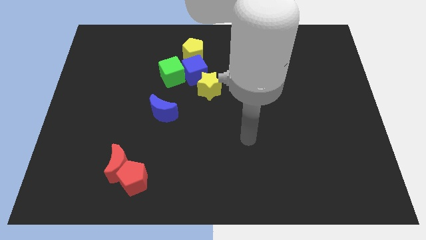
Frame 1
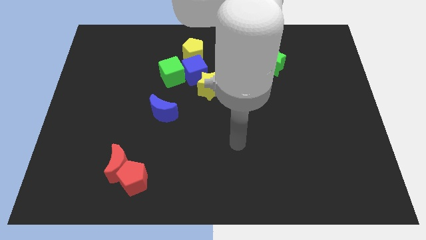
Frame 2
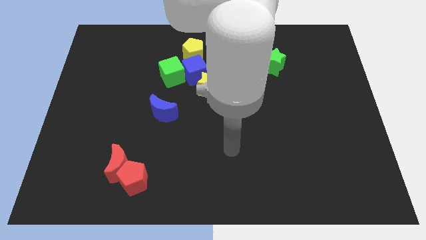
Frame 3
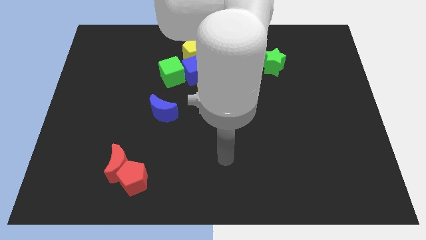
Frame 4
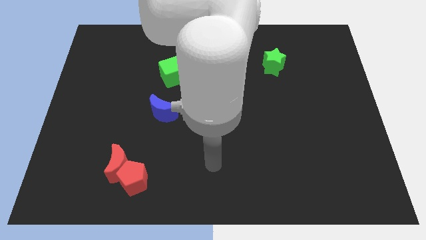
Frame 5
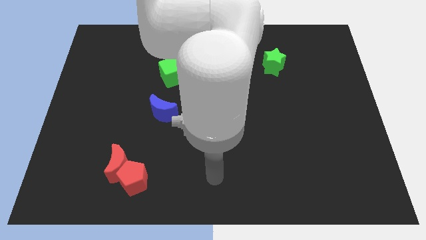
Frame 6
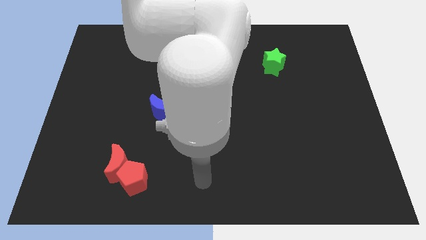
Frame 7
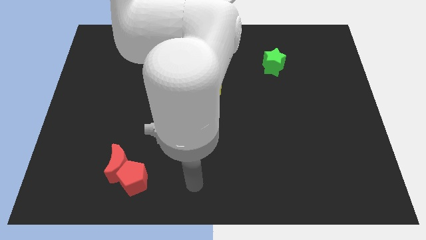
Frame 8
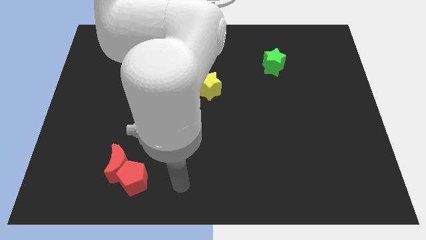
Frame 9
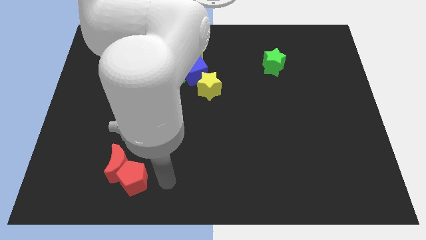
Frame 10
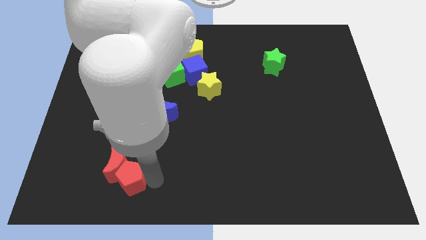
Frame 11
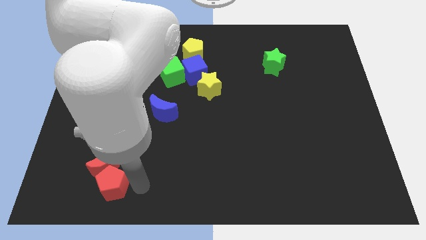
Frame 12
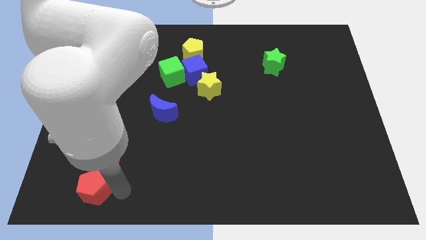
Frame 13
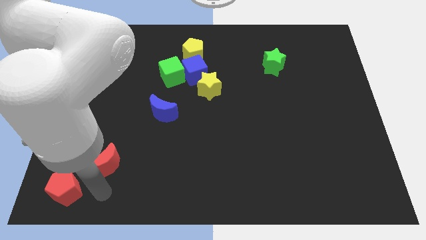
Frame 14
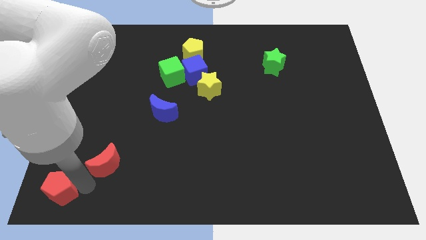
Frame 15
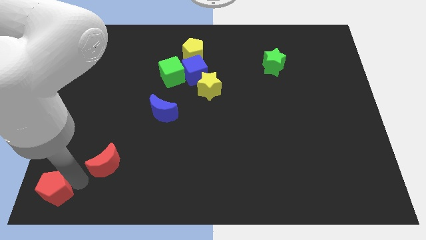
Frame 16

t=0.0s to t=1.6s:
pull the red moon apart from the red pentagon

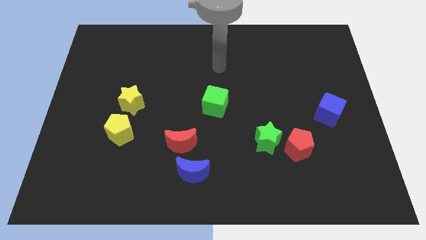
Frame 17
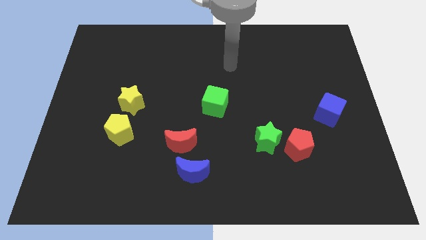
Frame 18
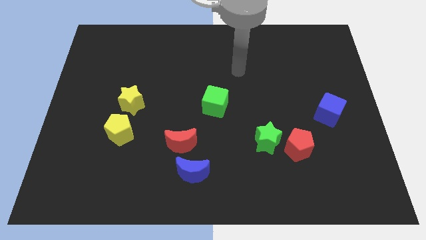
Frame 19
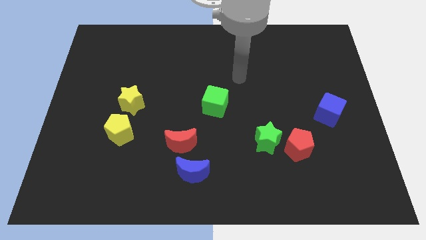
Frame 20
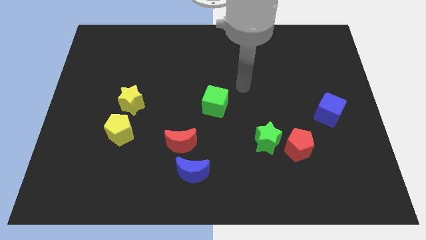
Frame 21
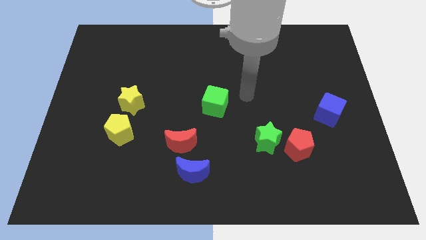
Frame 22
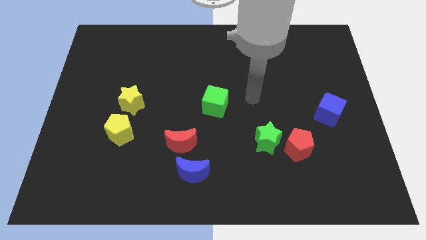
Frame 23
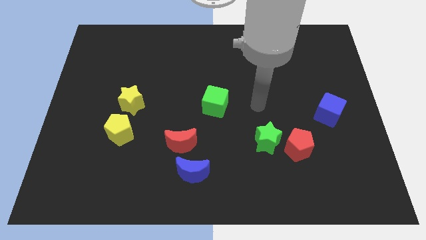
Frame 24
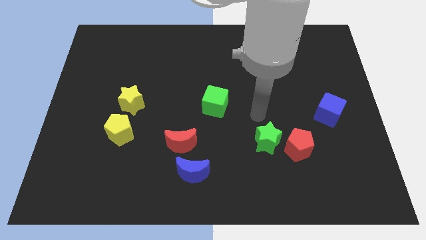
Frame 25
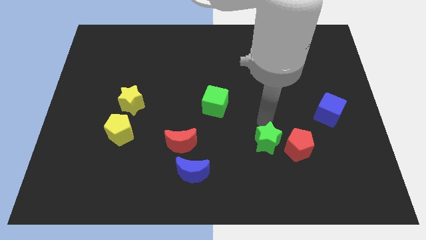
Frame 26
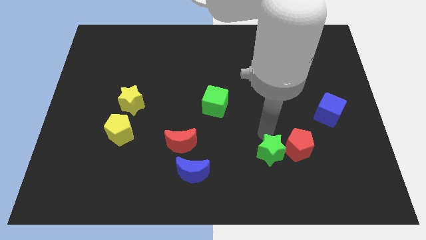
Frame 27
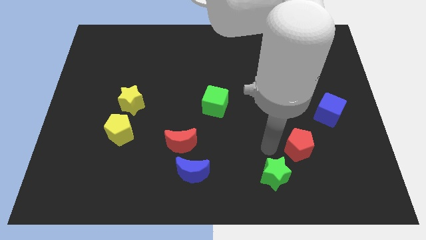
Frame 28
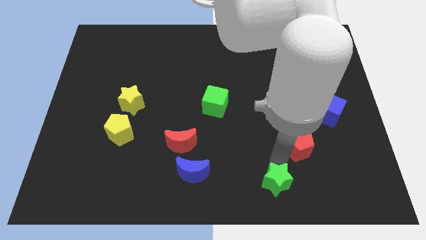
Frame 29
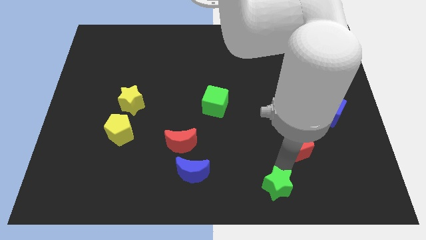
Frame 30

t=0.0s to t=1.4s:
move the red pentagon away from the green star

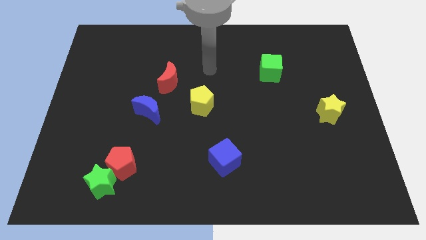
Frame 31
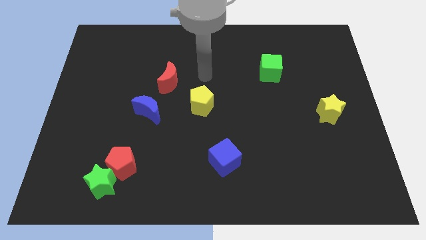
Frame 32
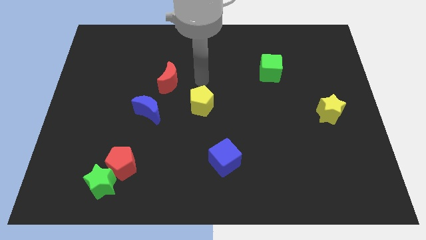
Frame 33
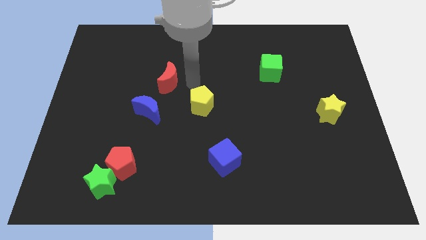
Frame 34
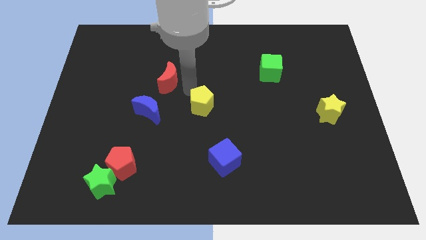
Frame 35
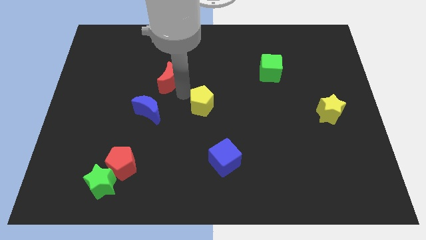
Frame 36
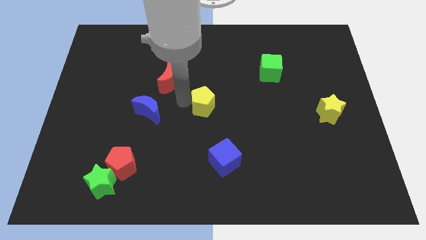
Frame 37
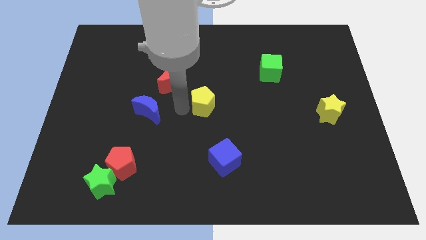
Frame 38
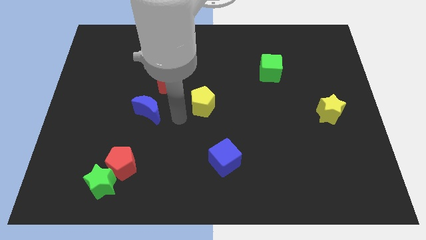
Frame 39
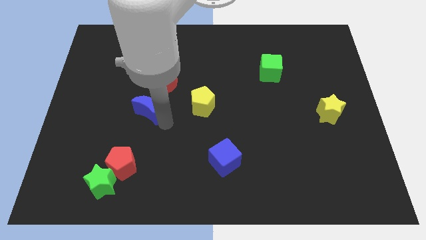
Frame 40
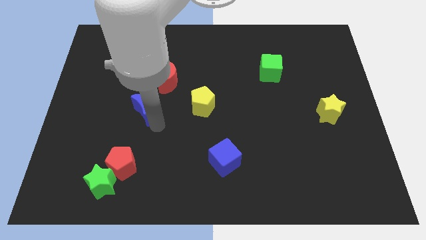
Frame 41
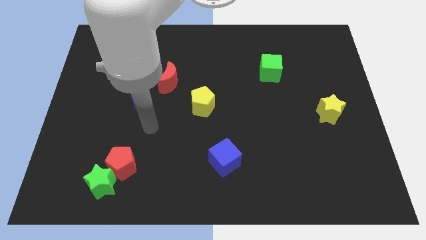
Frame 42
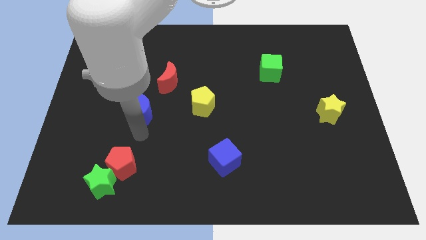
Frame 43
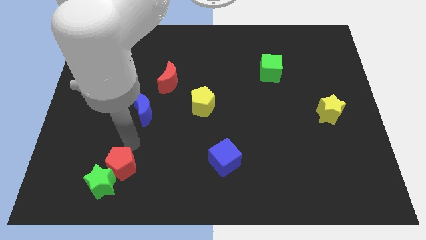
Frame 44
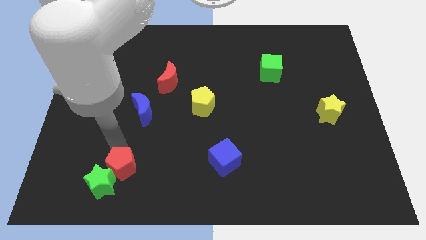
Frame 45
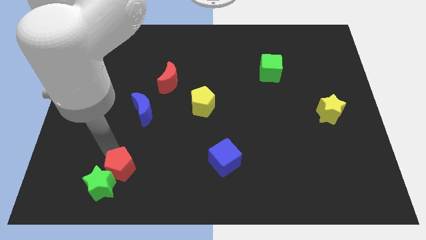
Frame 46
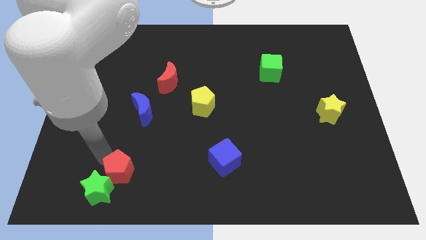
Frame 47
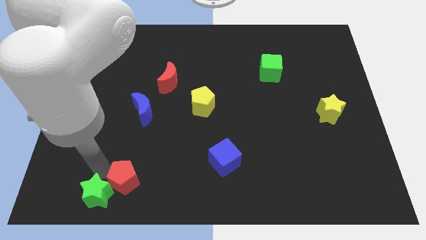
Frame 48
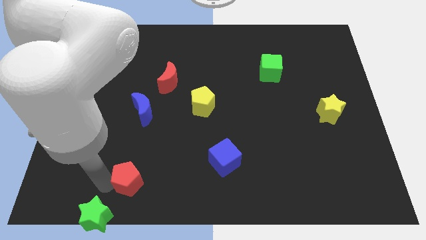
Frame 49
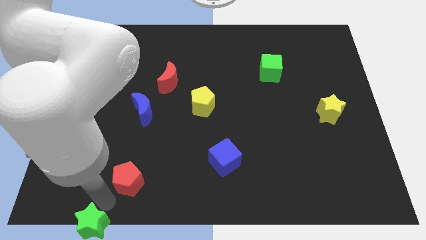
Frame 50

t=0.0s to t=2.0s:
pull the red pentagon apart from the green star

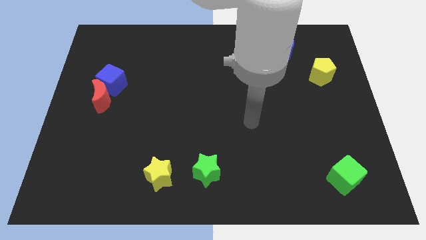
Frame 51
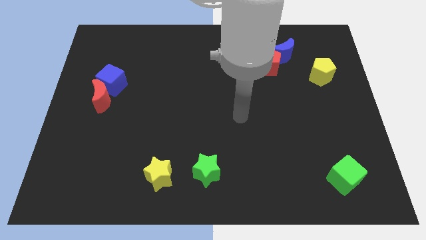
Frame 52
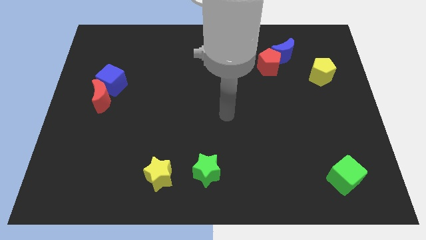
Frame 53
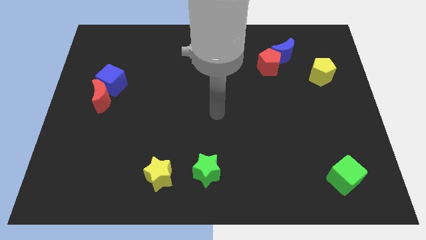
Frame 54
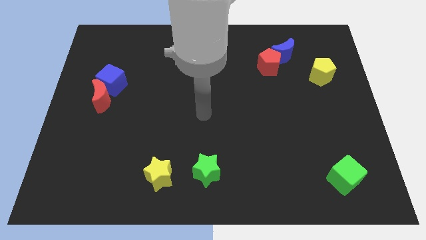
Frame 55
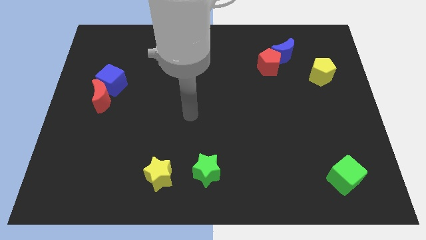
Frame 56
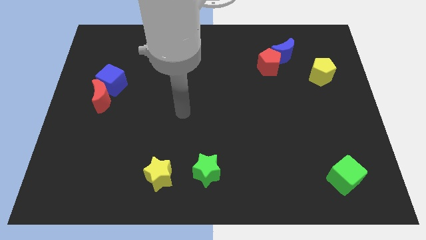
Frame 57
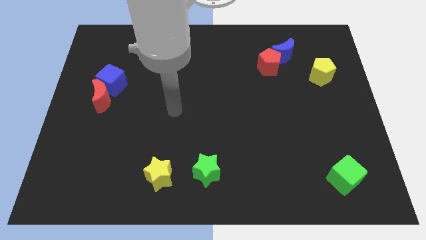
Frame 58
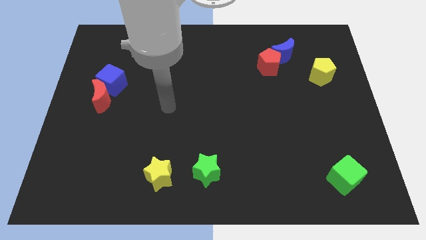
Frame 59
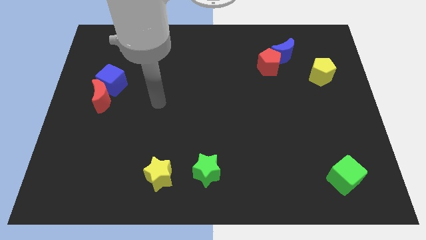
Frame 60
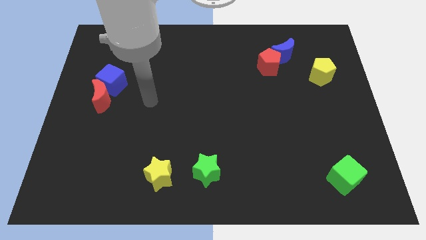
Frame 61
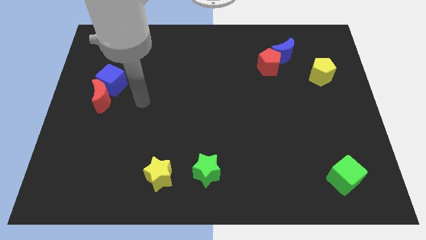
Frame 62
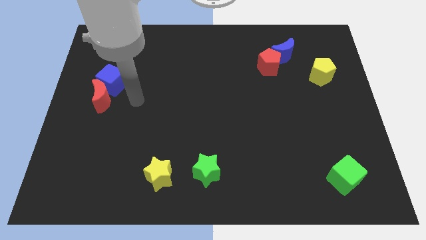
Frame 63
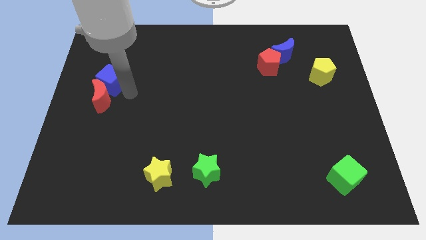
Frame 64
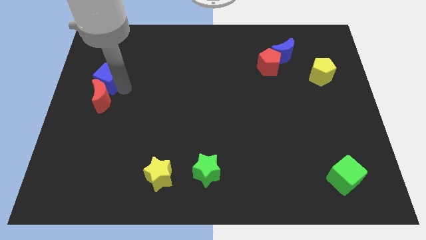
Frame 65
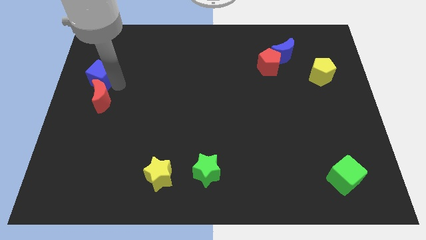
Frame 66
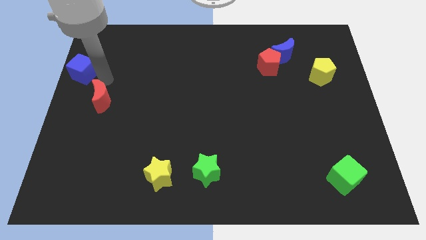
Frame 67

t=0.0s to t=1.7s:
move the red moon away from the blue cube

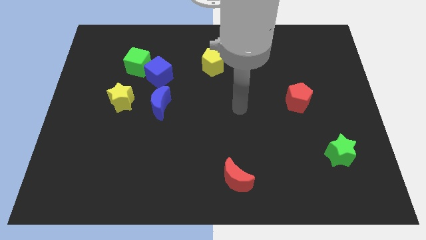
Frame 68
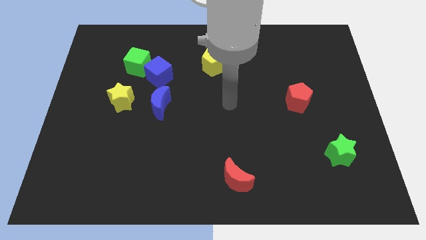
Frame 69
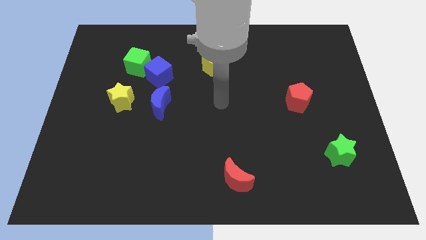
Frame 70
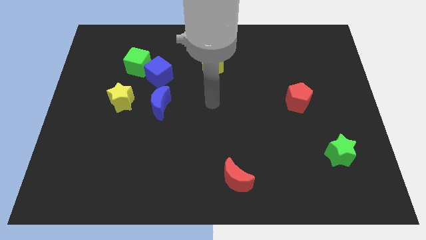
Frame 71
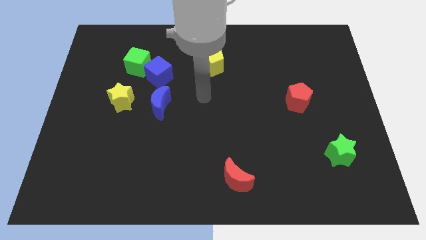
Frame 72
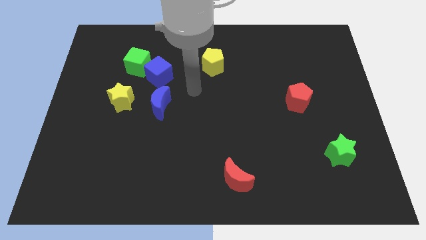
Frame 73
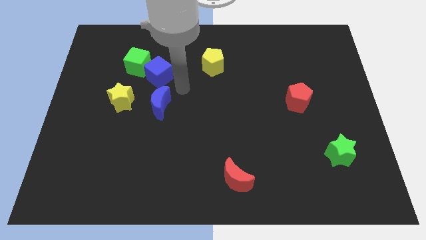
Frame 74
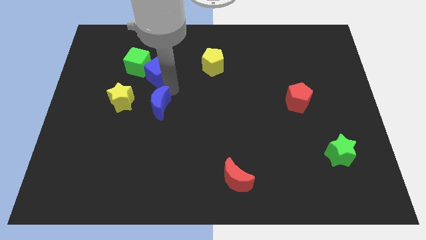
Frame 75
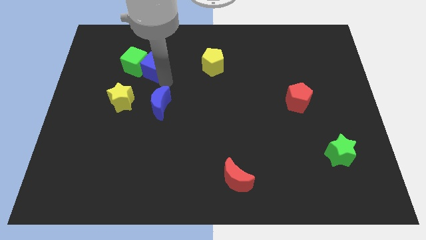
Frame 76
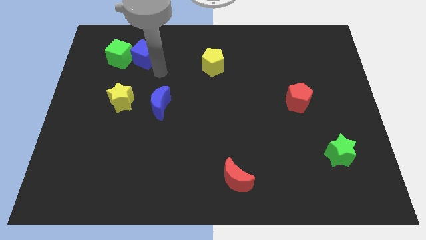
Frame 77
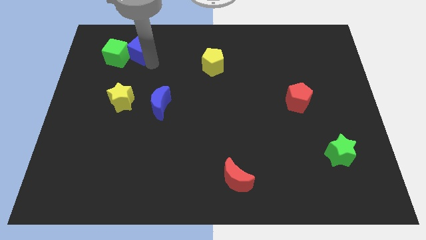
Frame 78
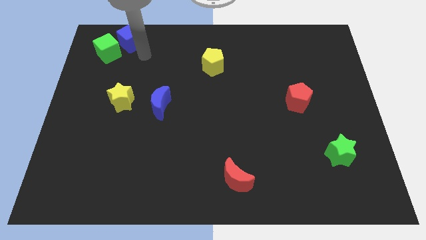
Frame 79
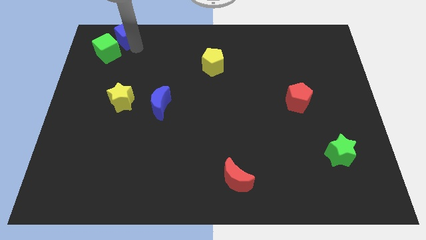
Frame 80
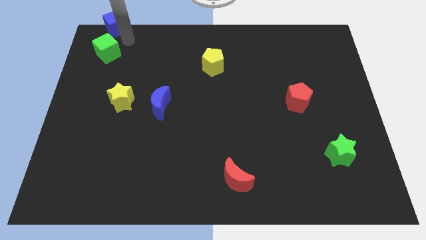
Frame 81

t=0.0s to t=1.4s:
separate the green cube from the blue cube

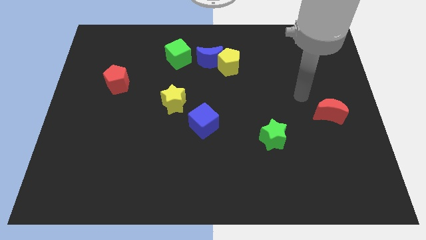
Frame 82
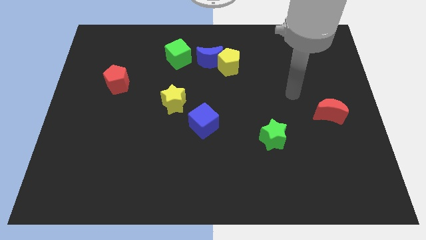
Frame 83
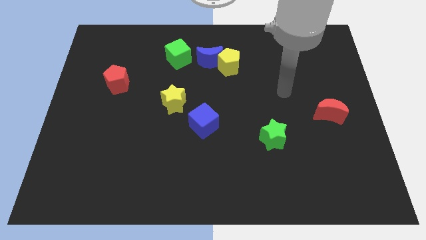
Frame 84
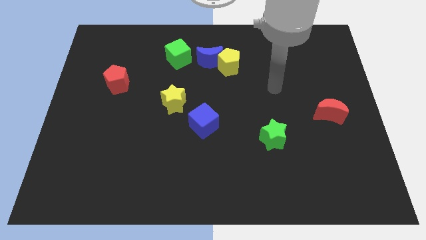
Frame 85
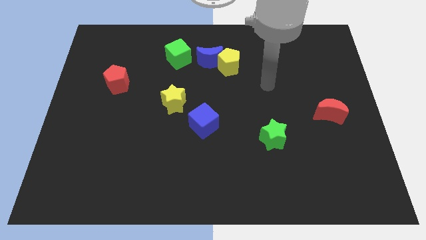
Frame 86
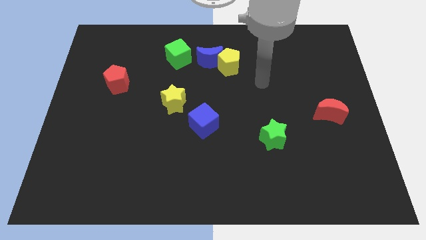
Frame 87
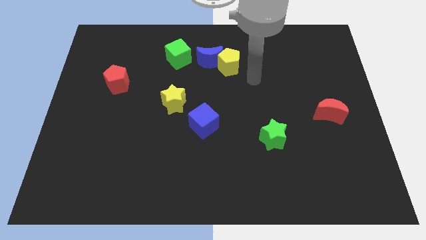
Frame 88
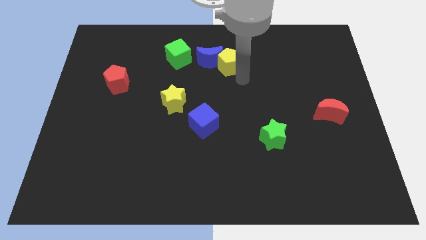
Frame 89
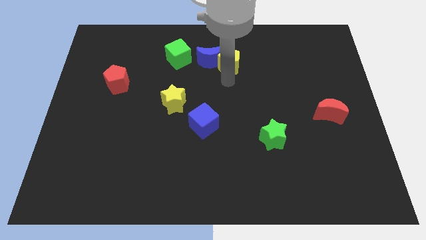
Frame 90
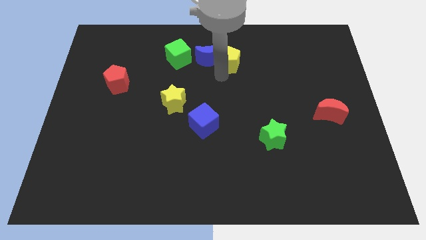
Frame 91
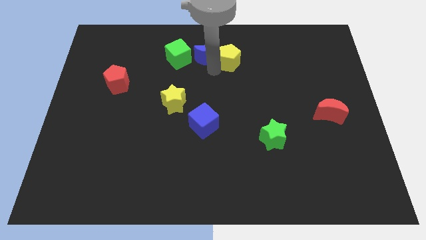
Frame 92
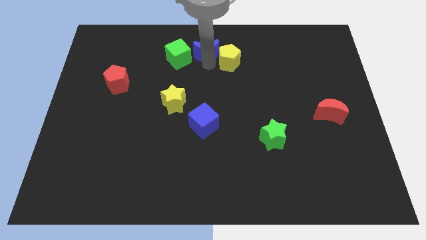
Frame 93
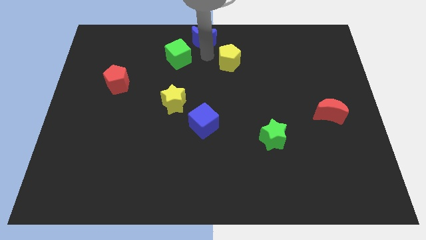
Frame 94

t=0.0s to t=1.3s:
separate the yellow pentagon from the blue moon
